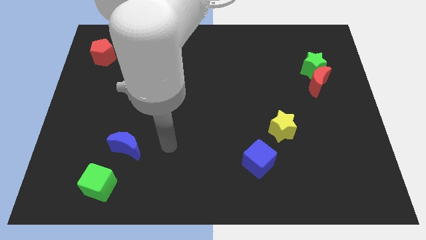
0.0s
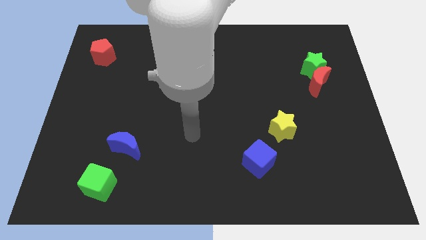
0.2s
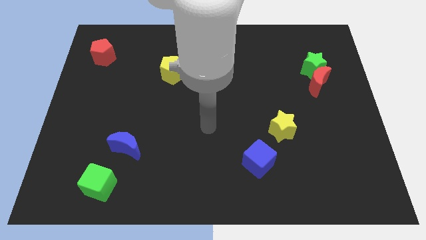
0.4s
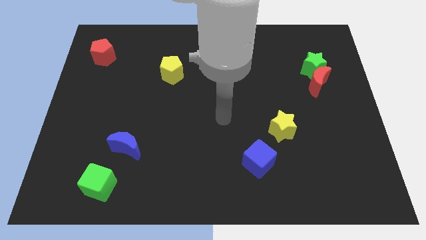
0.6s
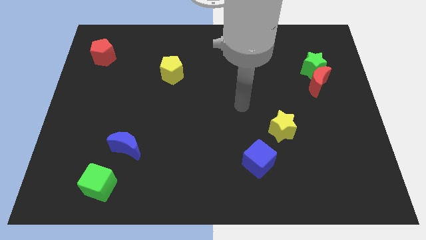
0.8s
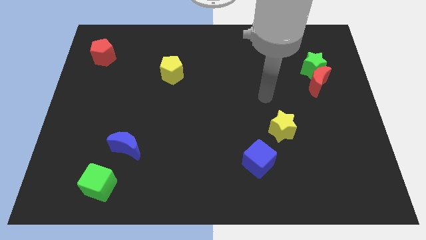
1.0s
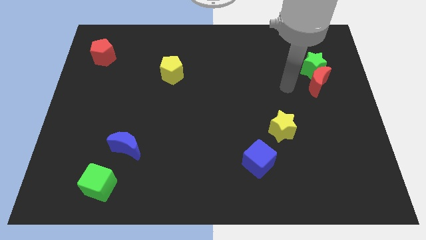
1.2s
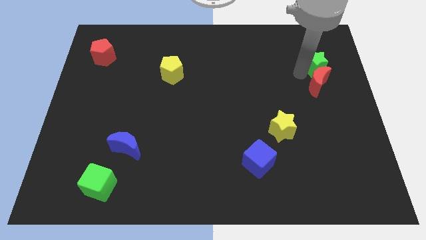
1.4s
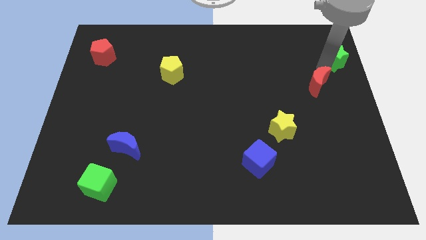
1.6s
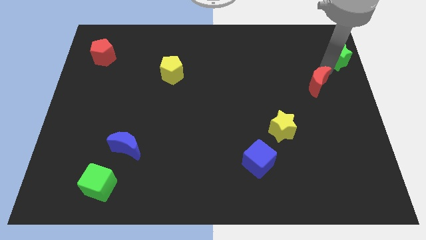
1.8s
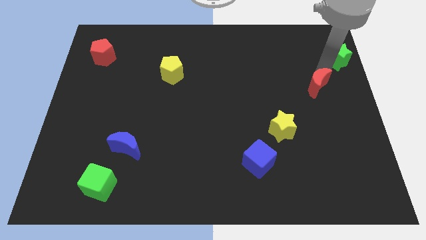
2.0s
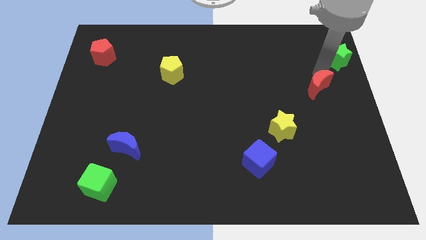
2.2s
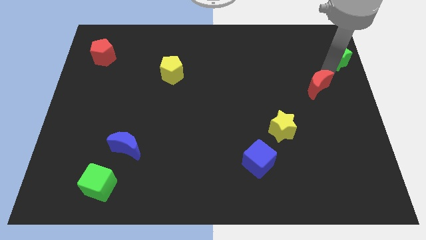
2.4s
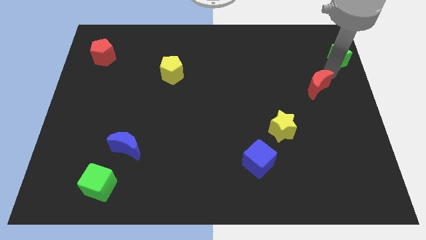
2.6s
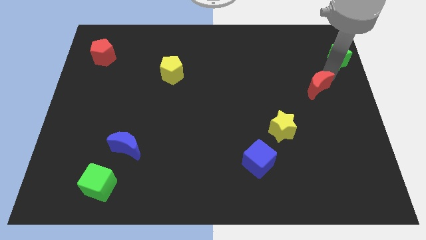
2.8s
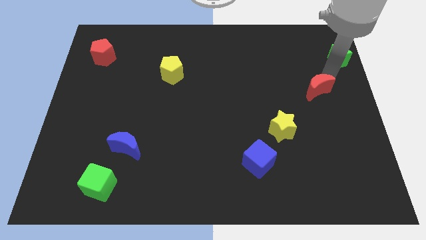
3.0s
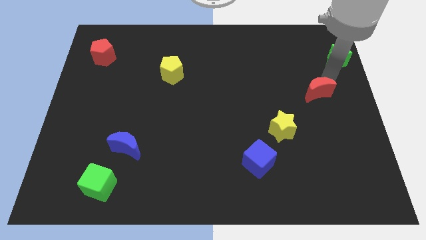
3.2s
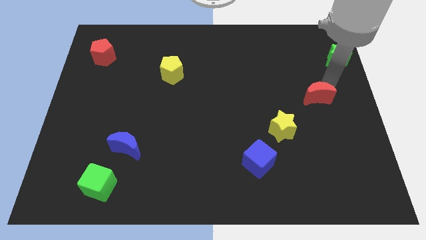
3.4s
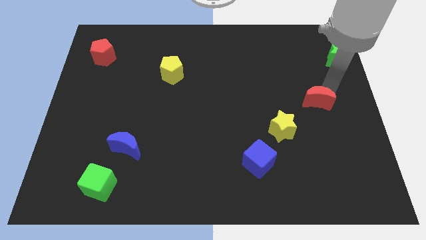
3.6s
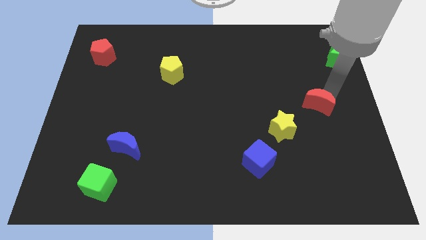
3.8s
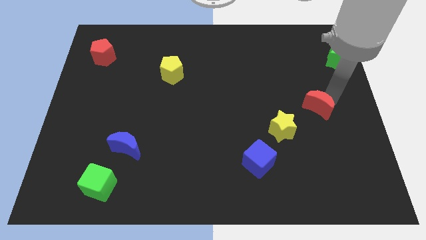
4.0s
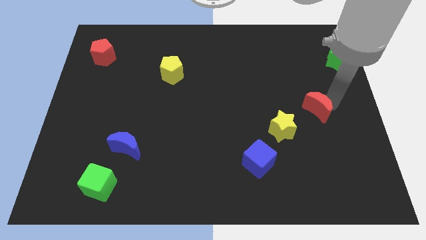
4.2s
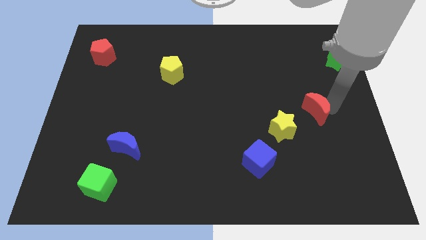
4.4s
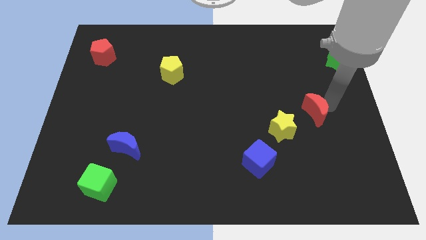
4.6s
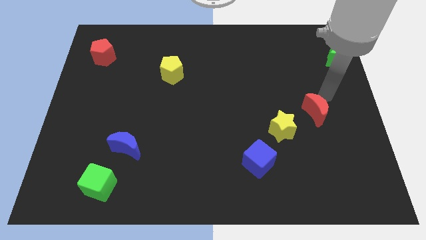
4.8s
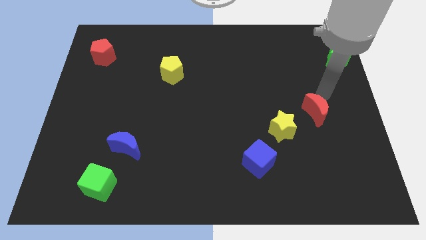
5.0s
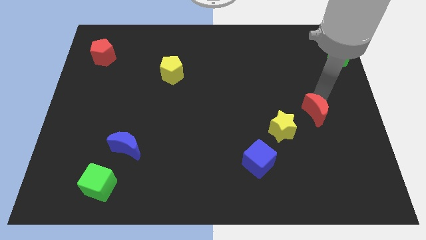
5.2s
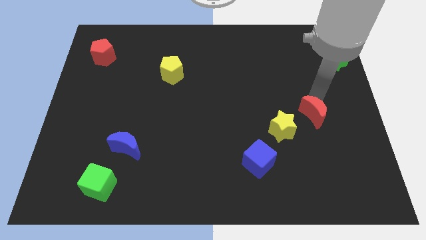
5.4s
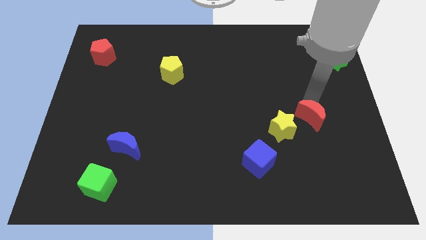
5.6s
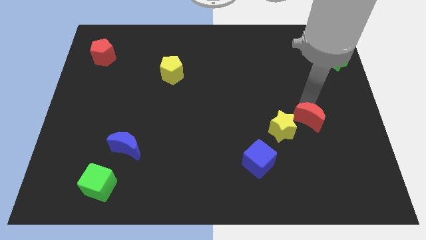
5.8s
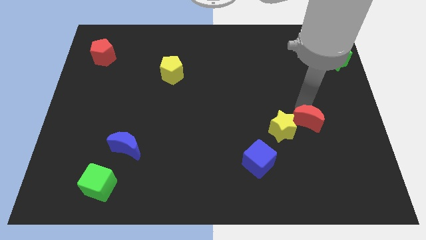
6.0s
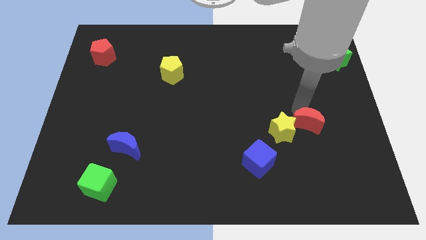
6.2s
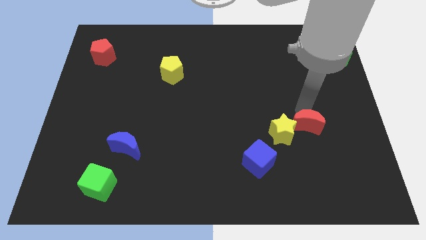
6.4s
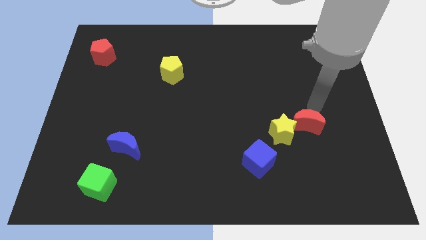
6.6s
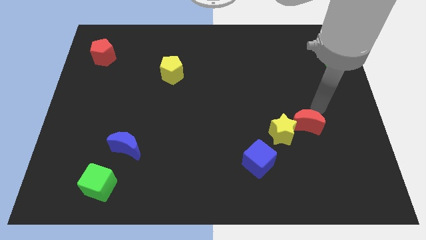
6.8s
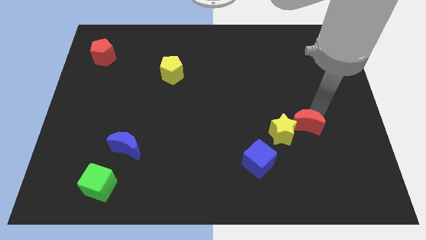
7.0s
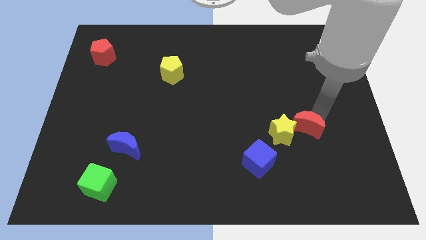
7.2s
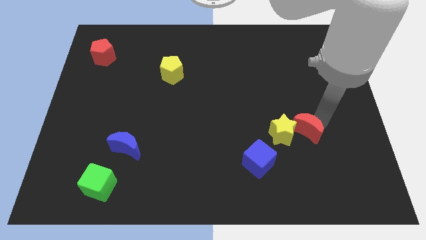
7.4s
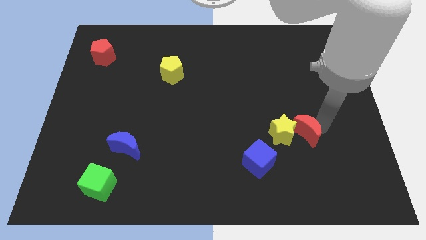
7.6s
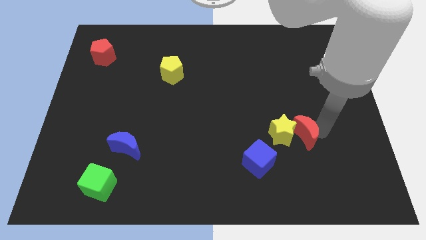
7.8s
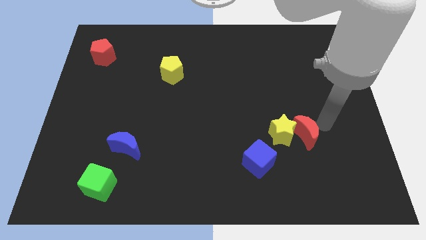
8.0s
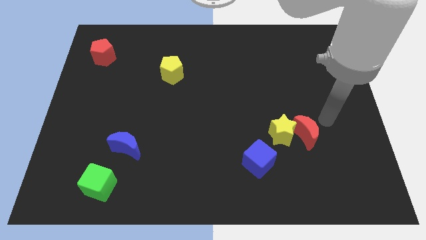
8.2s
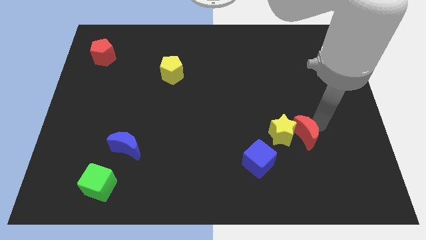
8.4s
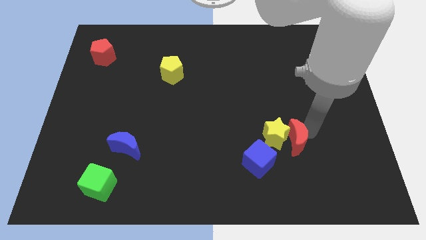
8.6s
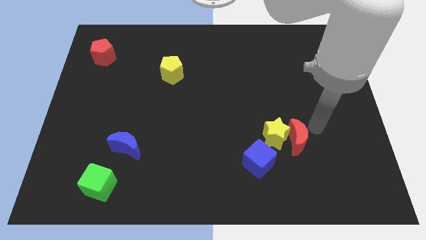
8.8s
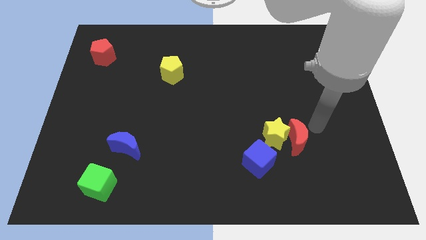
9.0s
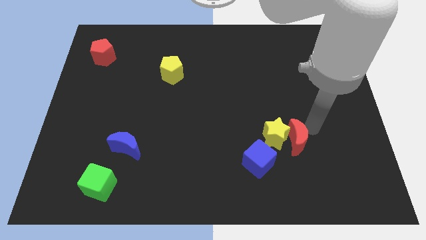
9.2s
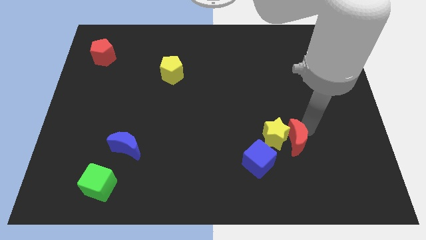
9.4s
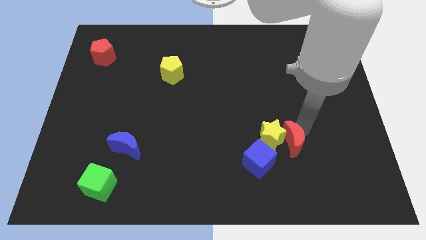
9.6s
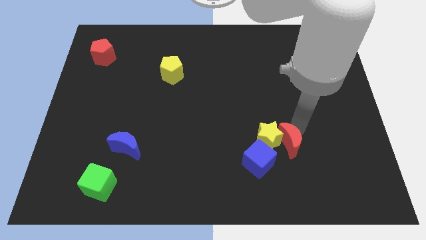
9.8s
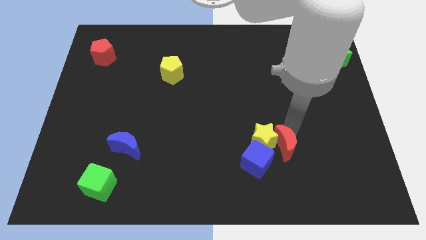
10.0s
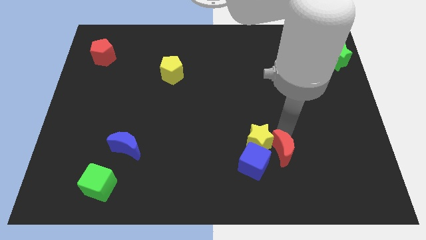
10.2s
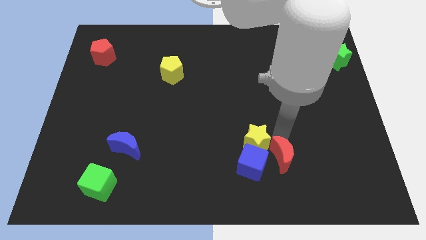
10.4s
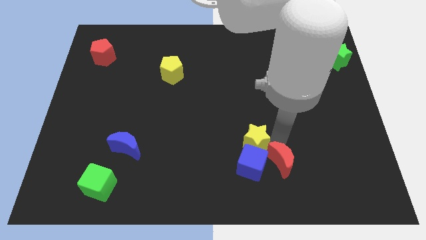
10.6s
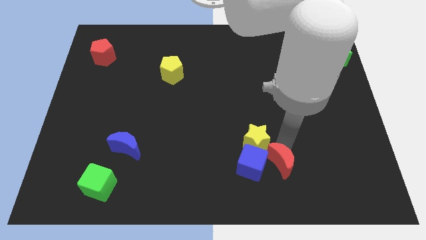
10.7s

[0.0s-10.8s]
move the red moon towards the blue cube

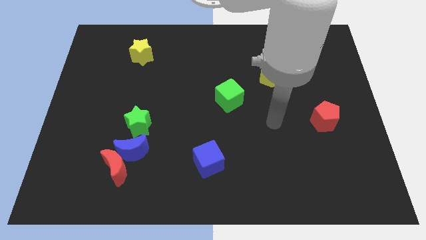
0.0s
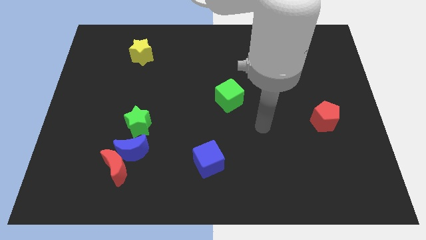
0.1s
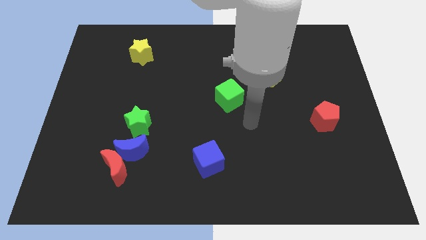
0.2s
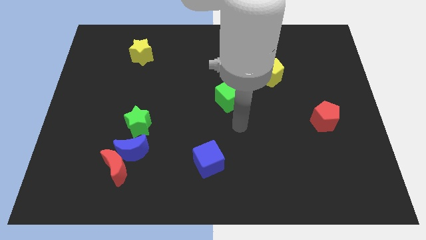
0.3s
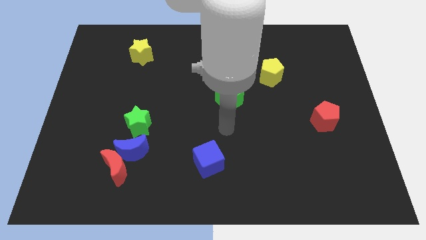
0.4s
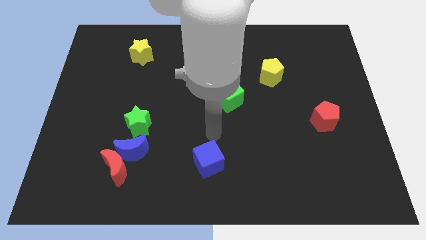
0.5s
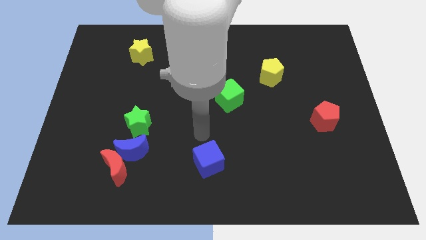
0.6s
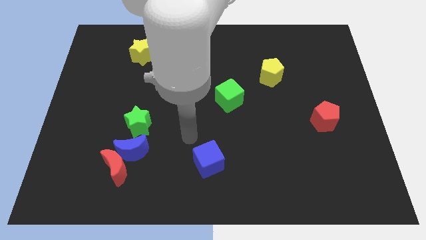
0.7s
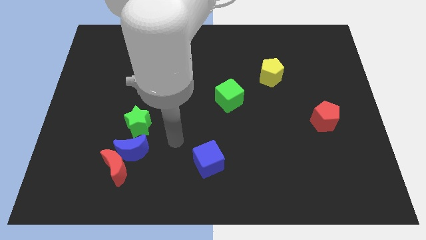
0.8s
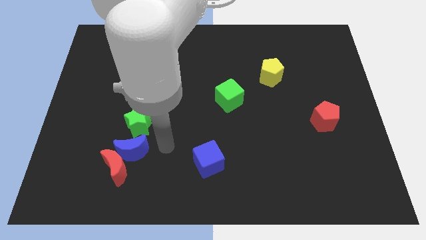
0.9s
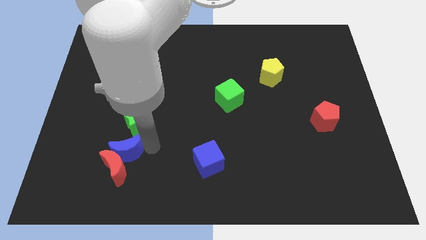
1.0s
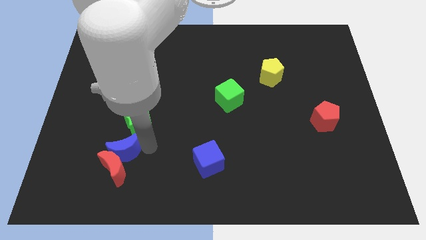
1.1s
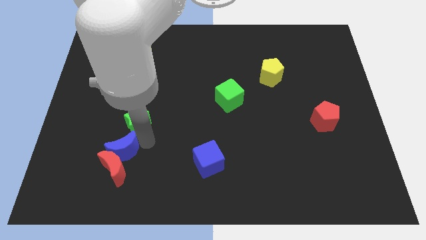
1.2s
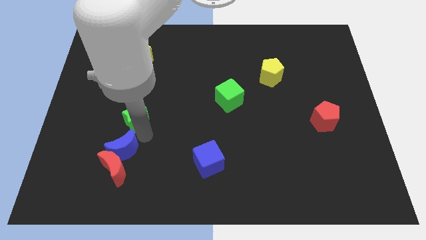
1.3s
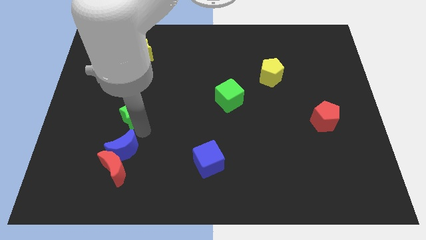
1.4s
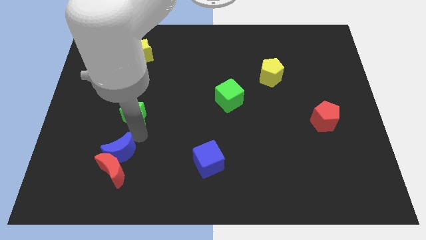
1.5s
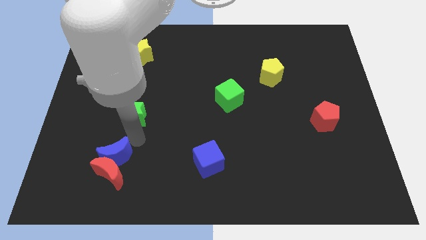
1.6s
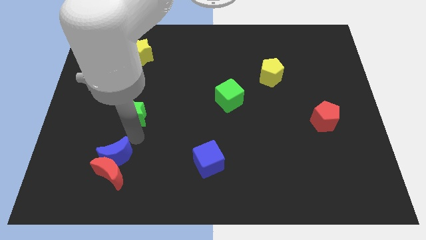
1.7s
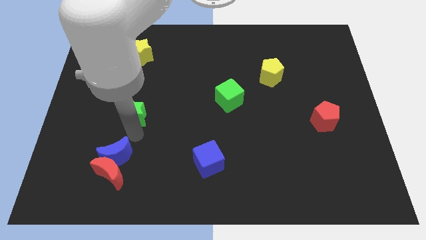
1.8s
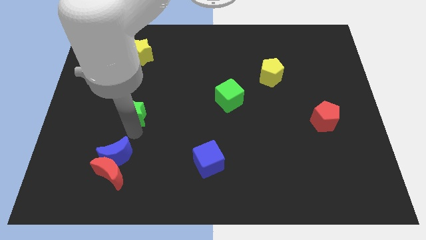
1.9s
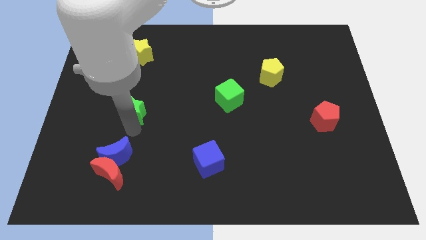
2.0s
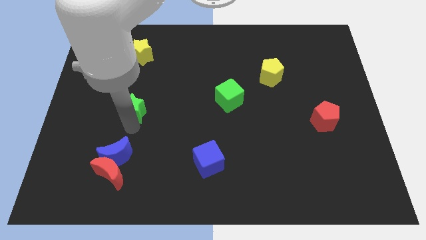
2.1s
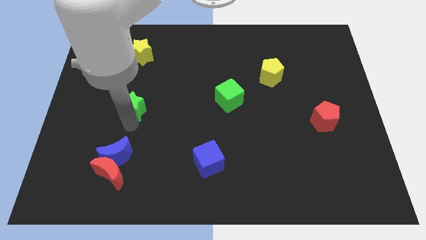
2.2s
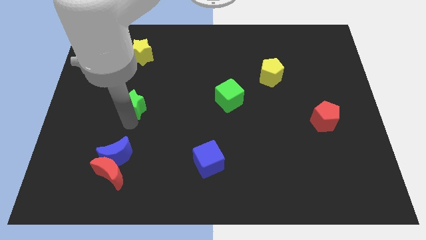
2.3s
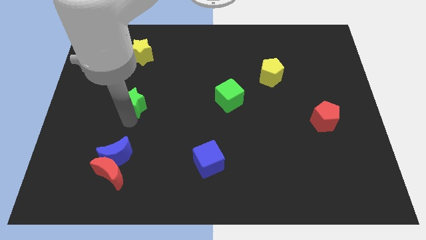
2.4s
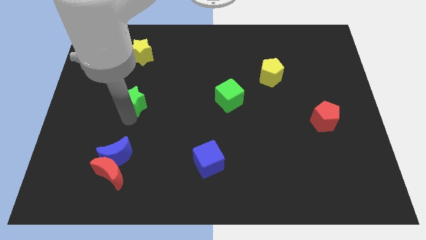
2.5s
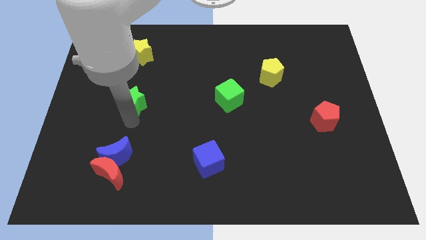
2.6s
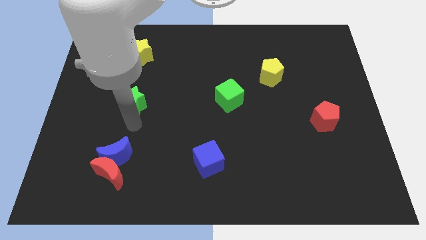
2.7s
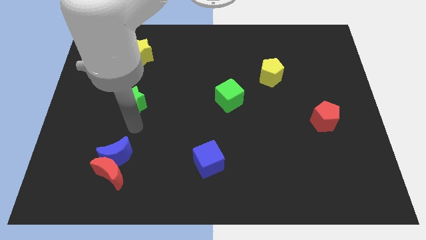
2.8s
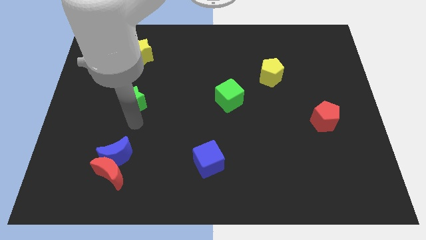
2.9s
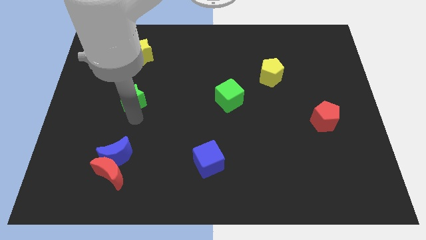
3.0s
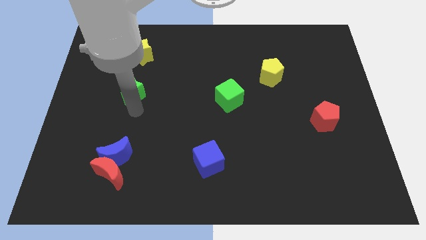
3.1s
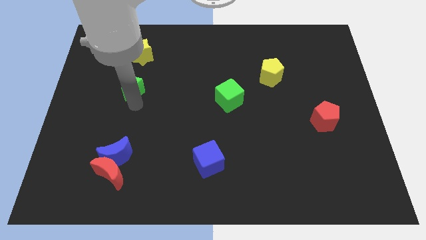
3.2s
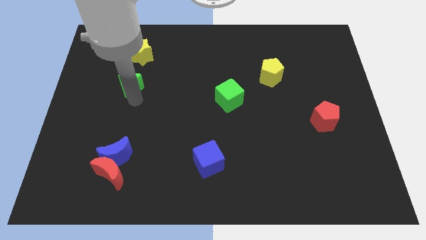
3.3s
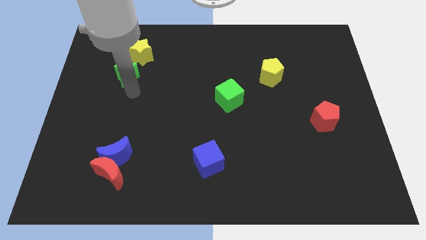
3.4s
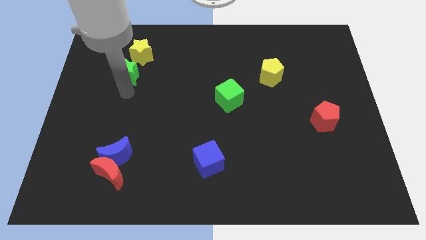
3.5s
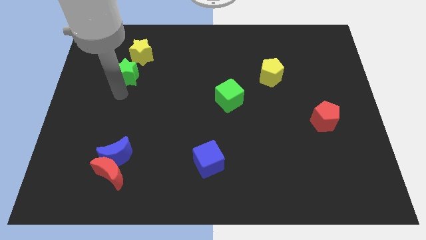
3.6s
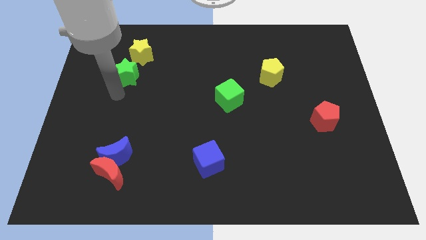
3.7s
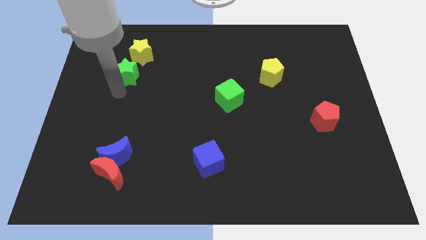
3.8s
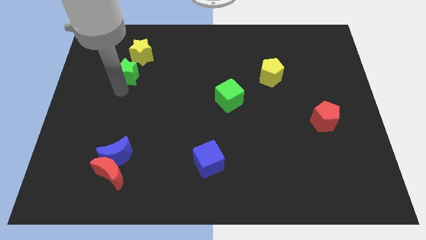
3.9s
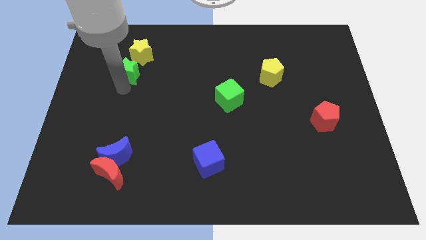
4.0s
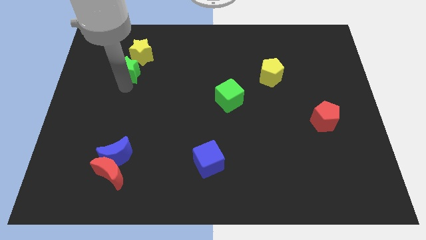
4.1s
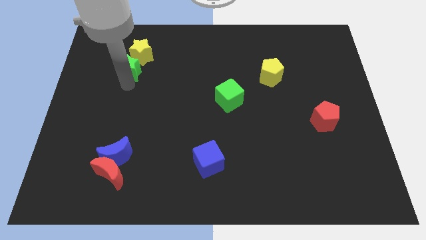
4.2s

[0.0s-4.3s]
move the green star close to the yellow star
